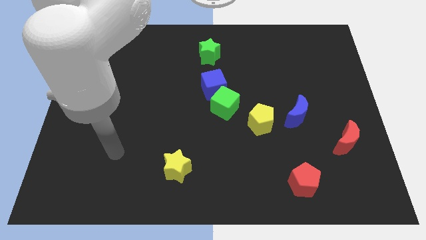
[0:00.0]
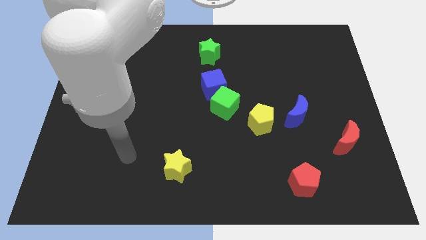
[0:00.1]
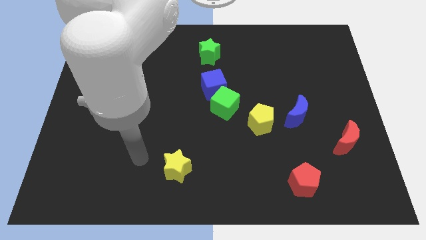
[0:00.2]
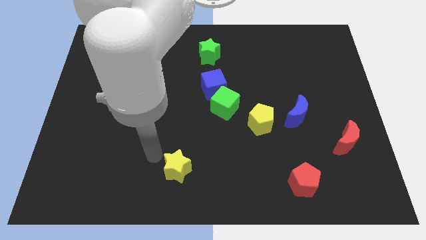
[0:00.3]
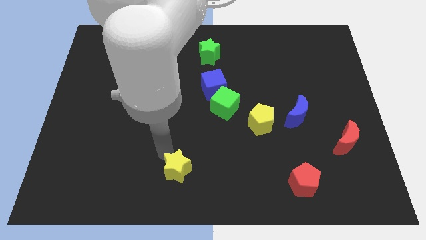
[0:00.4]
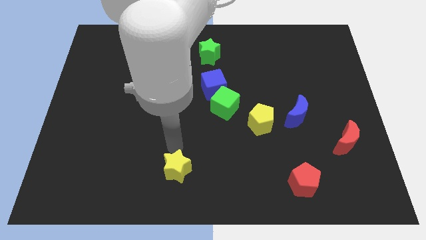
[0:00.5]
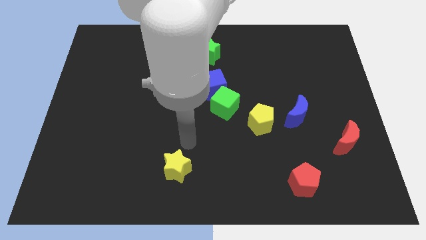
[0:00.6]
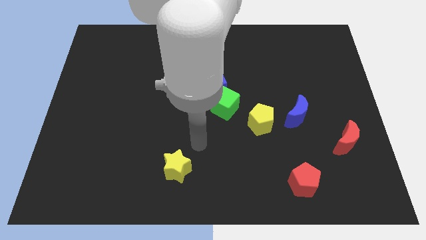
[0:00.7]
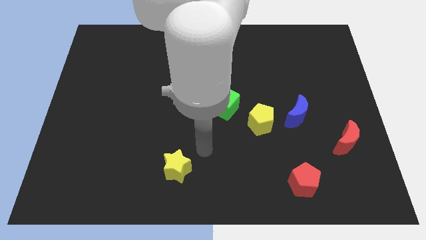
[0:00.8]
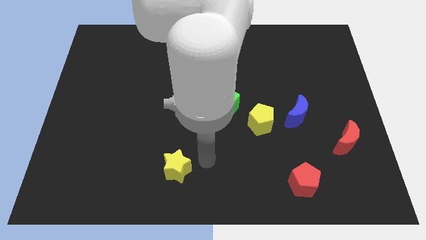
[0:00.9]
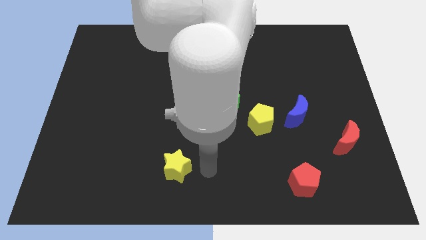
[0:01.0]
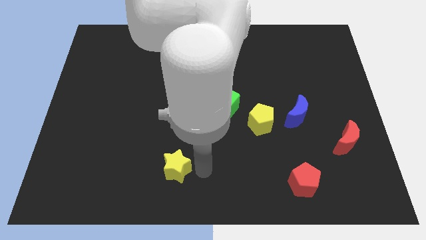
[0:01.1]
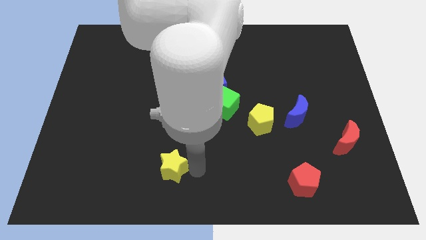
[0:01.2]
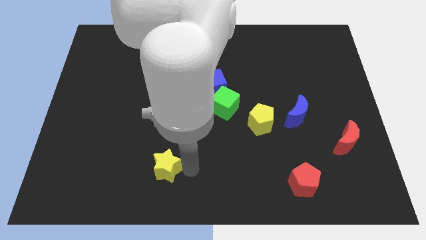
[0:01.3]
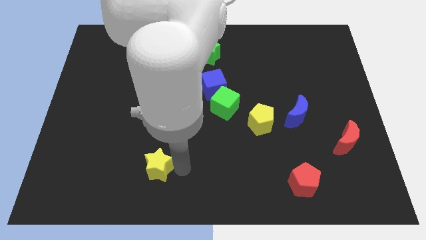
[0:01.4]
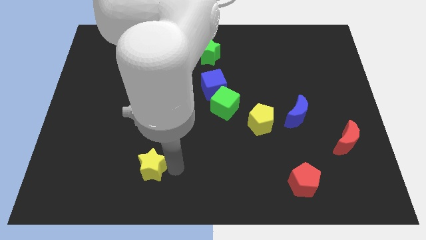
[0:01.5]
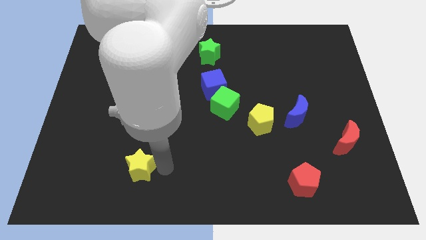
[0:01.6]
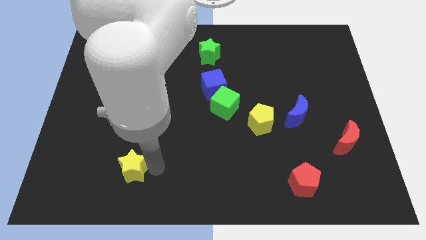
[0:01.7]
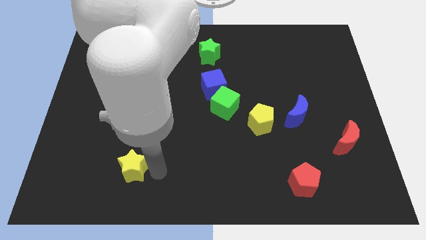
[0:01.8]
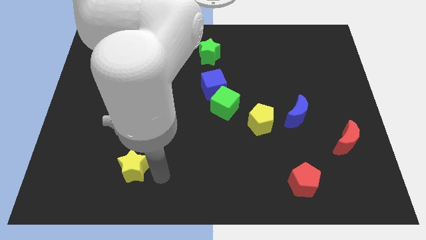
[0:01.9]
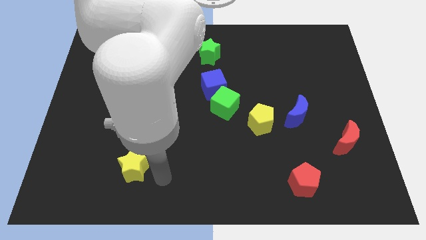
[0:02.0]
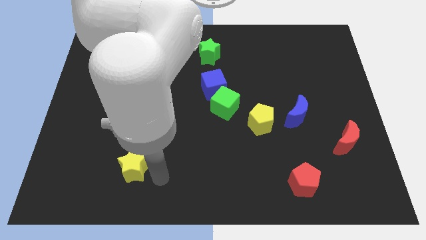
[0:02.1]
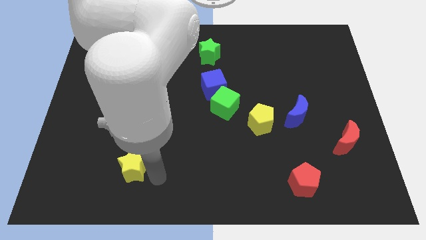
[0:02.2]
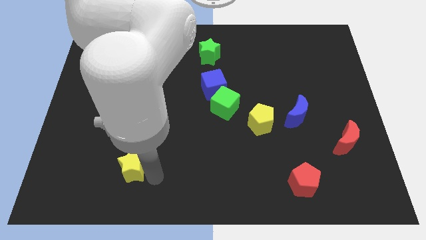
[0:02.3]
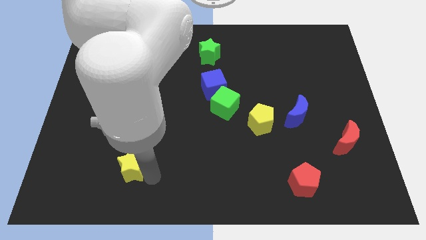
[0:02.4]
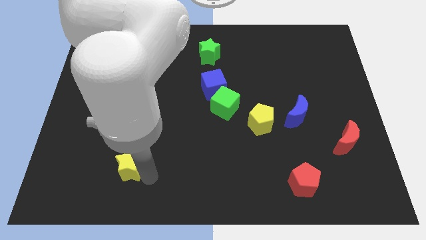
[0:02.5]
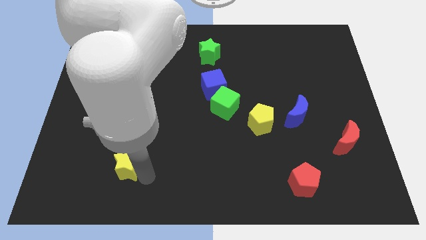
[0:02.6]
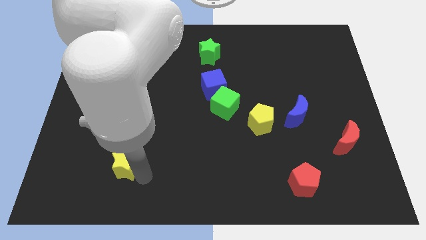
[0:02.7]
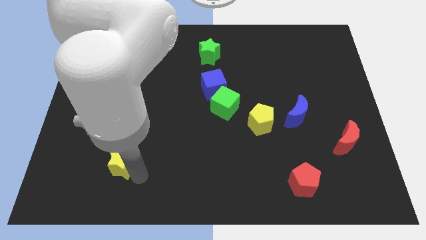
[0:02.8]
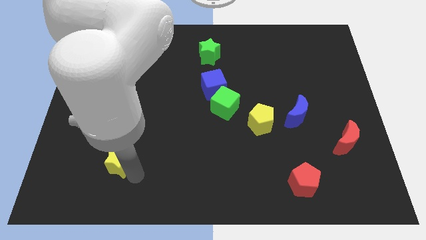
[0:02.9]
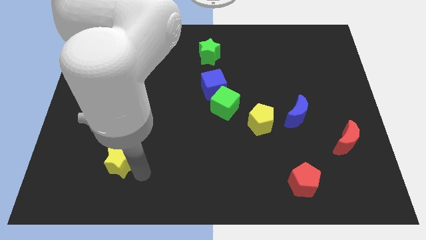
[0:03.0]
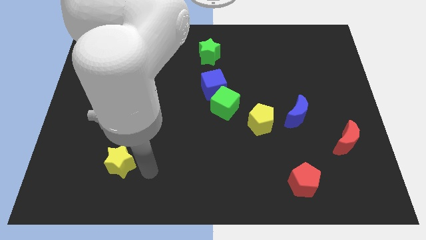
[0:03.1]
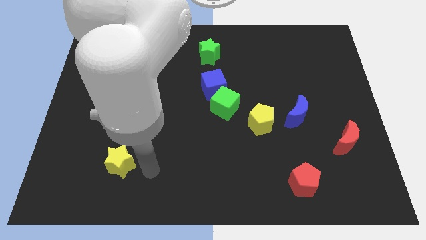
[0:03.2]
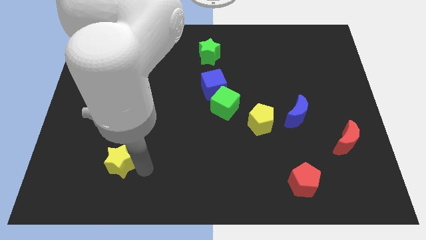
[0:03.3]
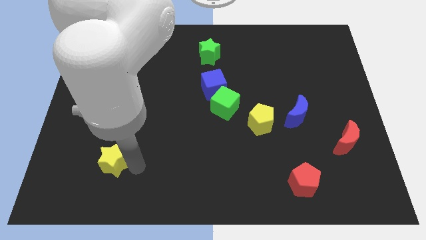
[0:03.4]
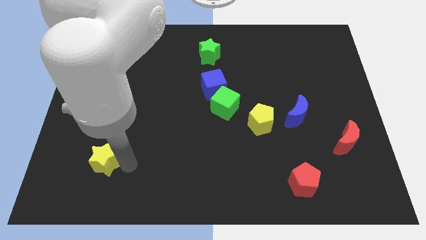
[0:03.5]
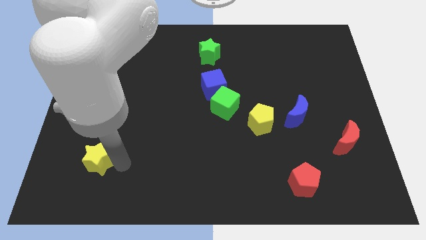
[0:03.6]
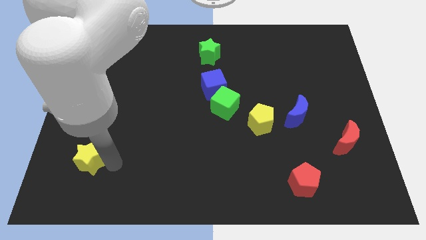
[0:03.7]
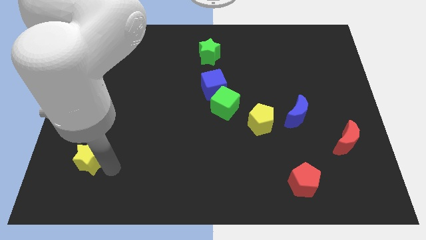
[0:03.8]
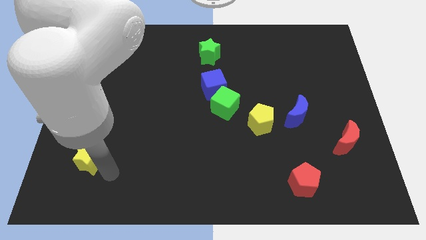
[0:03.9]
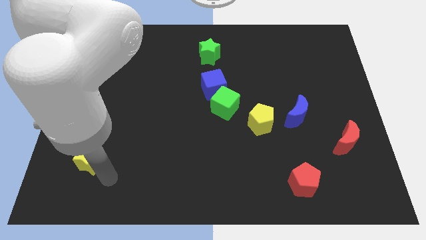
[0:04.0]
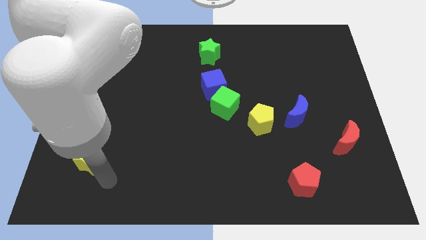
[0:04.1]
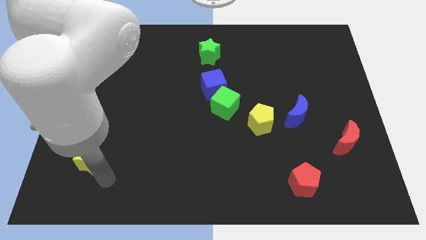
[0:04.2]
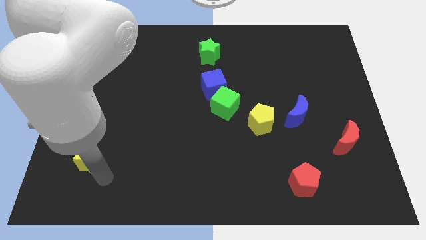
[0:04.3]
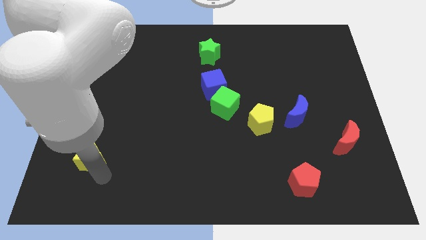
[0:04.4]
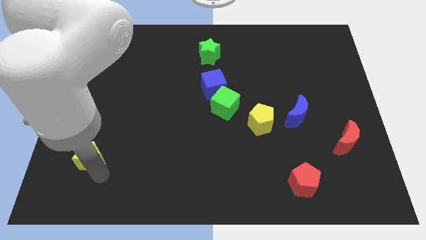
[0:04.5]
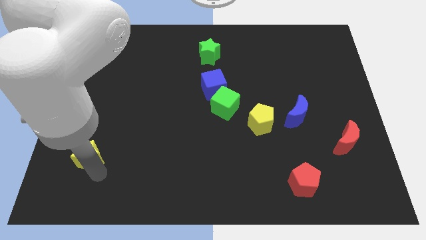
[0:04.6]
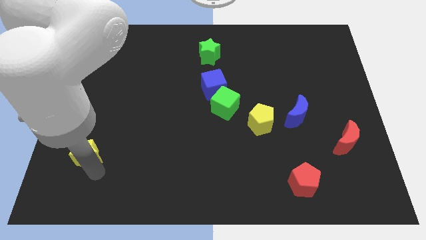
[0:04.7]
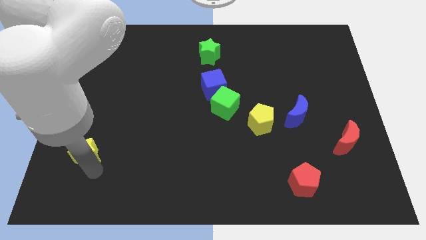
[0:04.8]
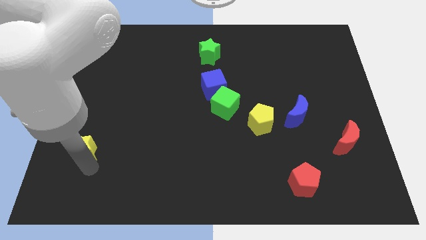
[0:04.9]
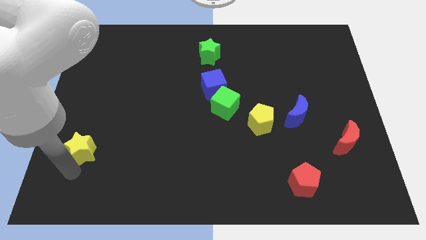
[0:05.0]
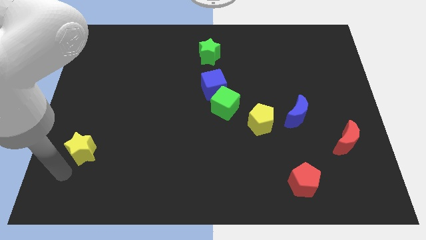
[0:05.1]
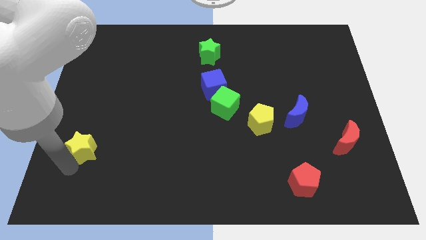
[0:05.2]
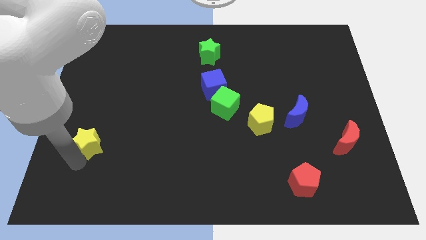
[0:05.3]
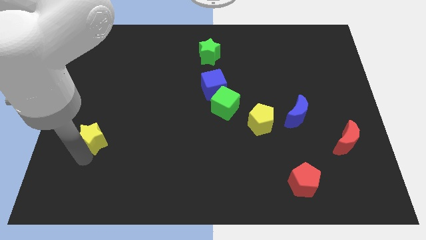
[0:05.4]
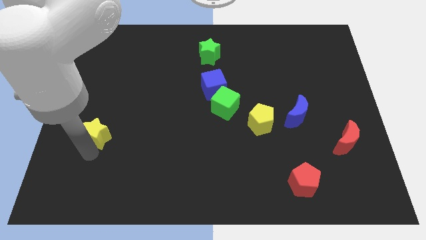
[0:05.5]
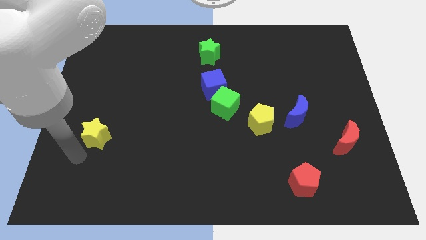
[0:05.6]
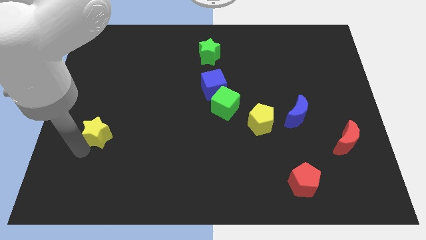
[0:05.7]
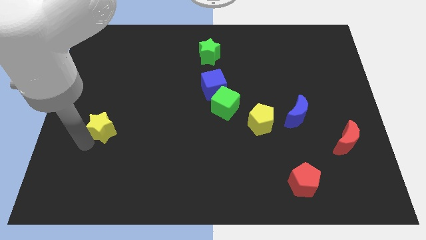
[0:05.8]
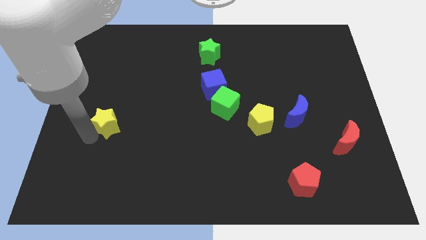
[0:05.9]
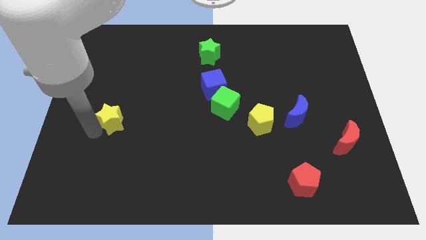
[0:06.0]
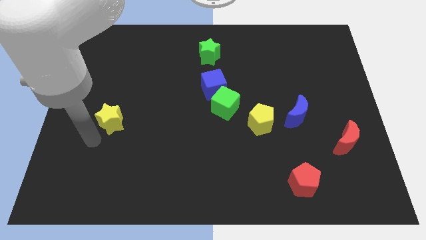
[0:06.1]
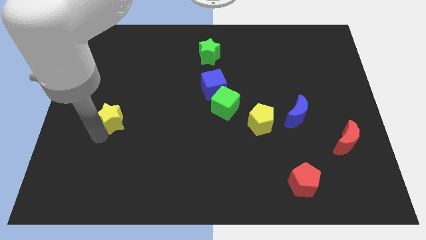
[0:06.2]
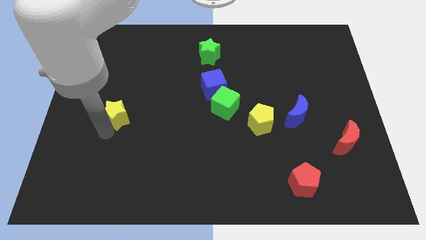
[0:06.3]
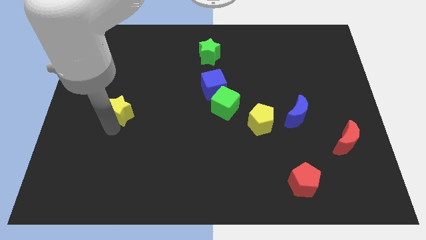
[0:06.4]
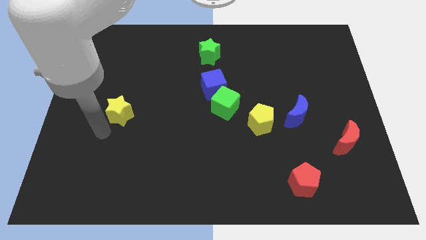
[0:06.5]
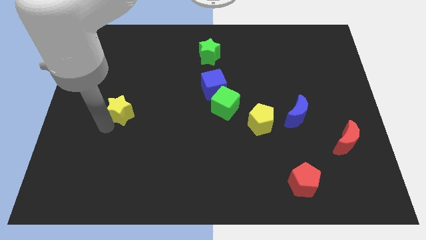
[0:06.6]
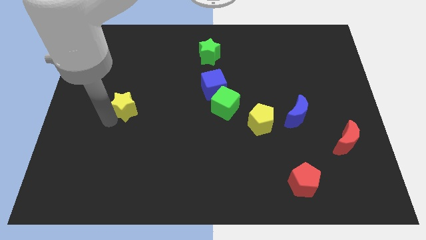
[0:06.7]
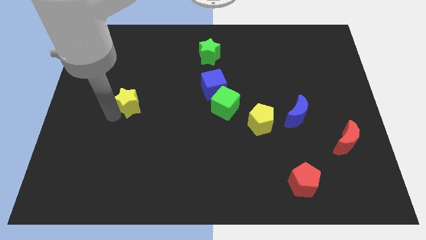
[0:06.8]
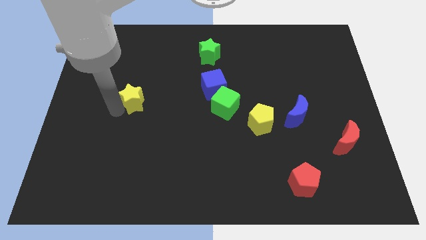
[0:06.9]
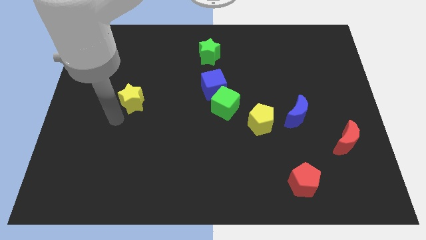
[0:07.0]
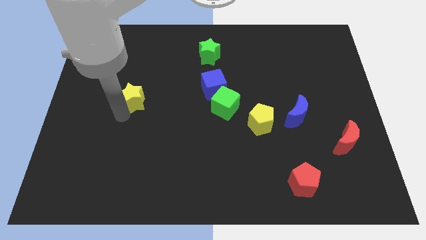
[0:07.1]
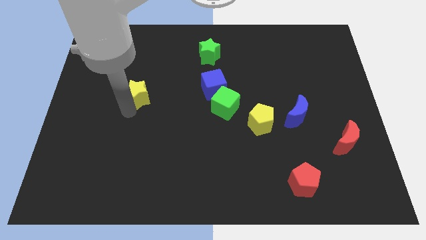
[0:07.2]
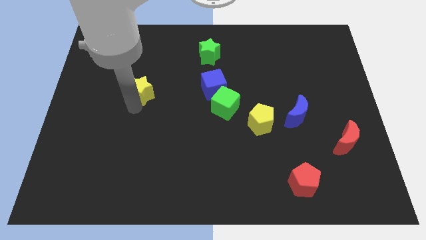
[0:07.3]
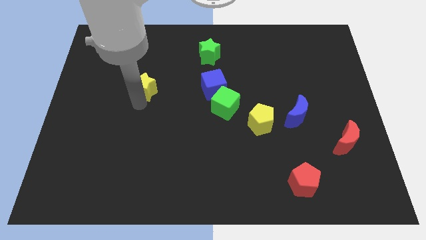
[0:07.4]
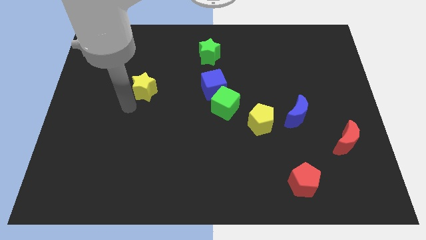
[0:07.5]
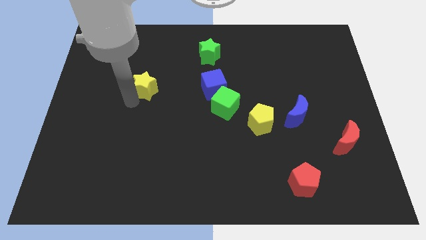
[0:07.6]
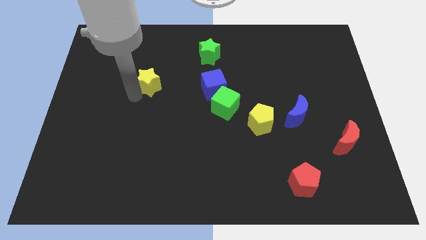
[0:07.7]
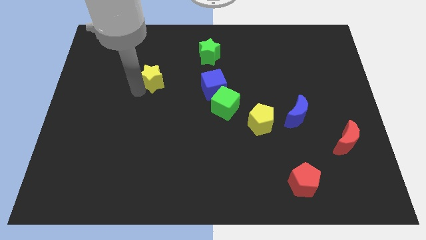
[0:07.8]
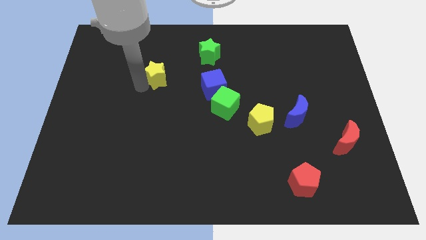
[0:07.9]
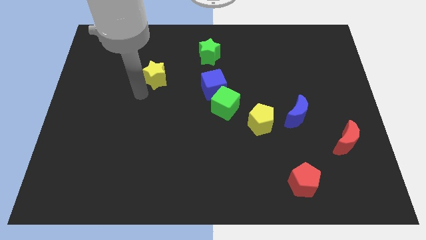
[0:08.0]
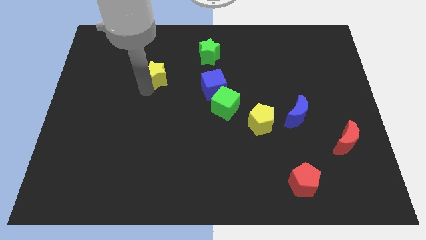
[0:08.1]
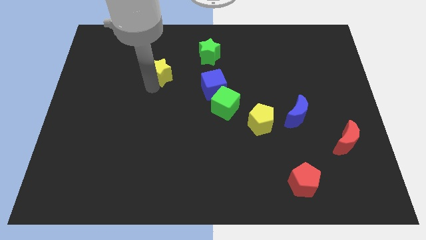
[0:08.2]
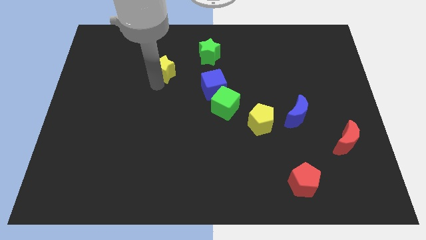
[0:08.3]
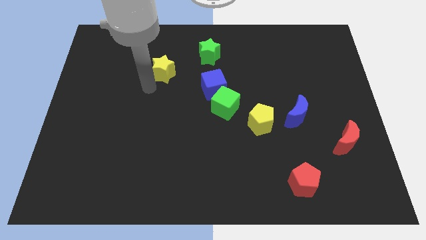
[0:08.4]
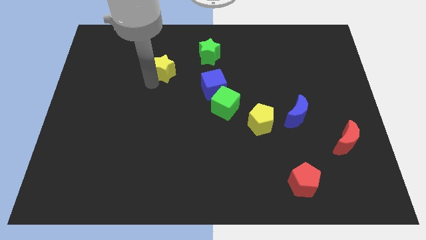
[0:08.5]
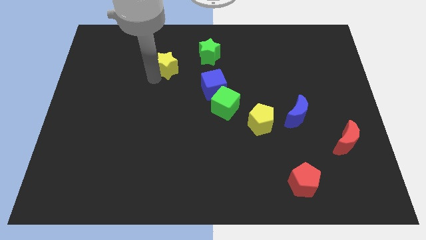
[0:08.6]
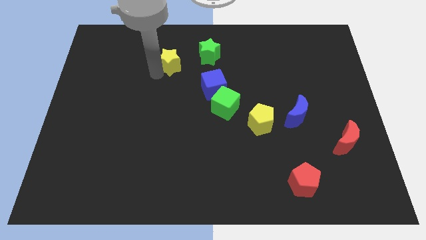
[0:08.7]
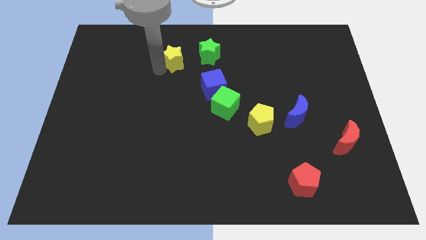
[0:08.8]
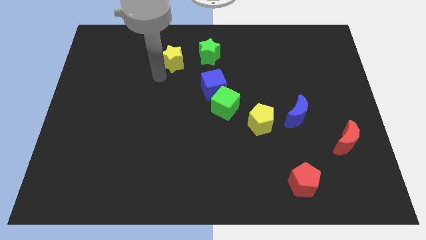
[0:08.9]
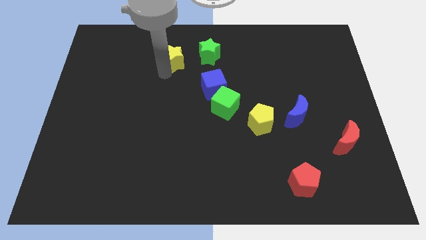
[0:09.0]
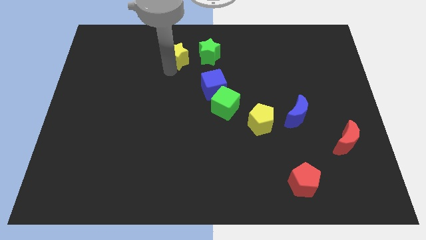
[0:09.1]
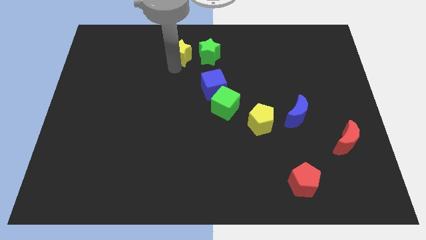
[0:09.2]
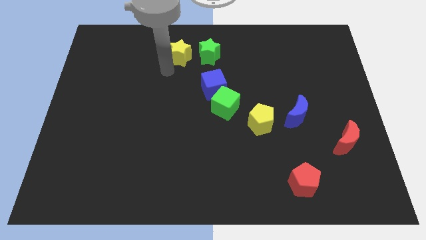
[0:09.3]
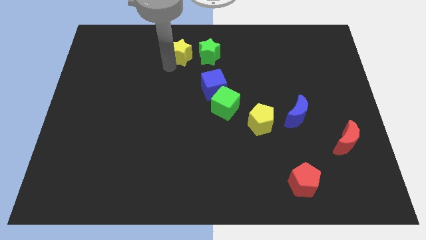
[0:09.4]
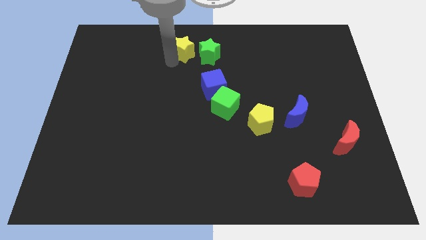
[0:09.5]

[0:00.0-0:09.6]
push the yellow star to the top side
